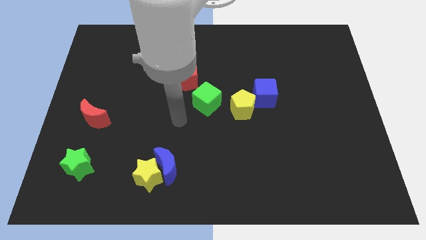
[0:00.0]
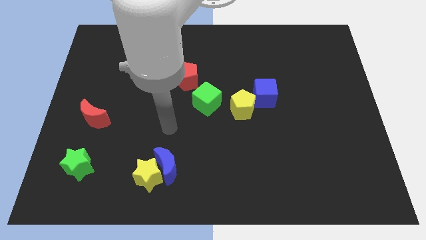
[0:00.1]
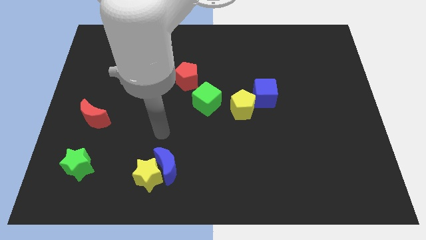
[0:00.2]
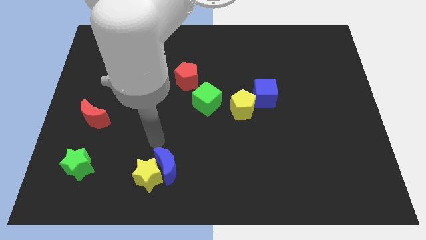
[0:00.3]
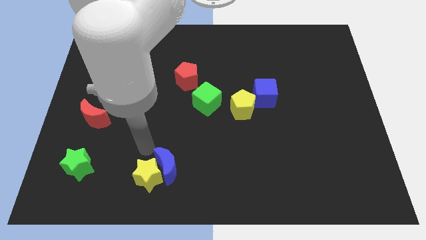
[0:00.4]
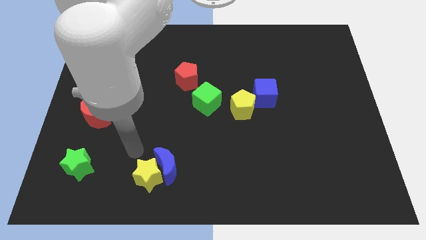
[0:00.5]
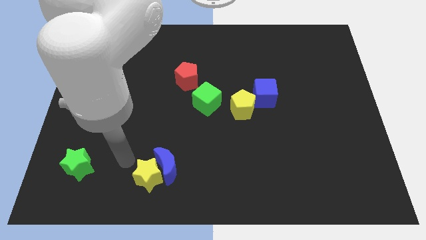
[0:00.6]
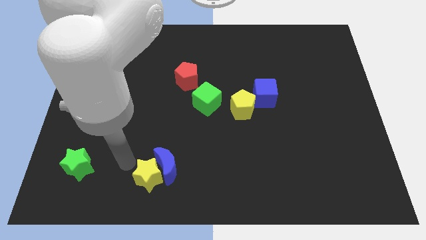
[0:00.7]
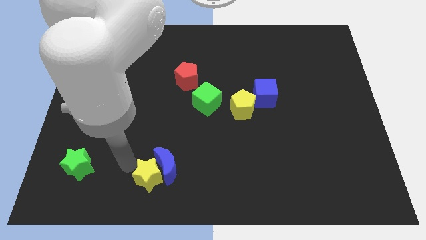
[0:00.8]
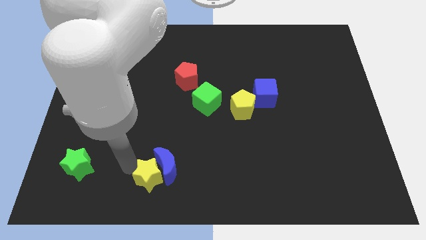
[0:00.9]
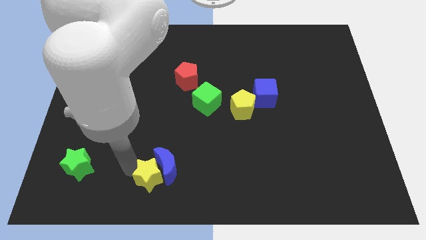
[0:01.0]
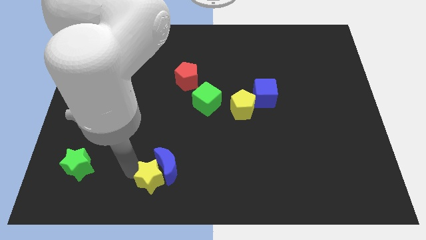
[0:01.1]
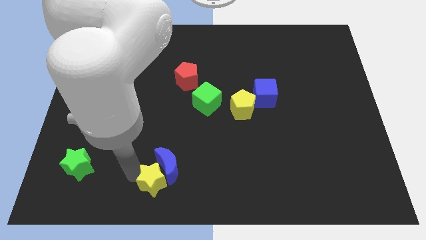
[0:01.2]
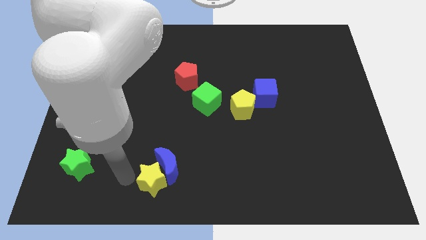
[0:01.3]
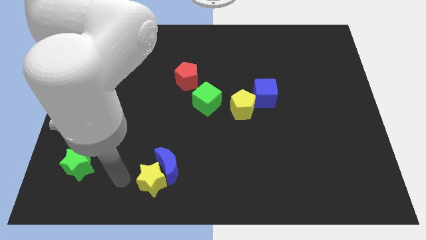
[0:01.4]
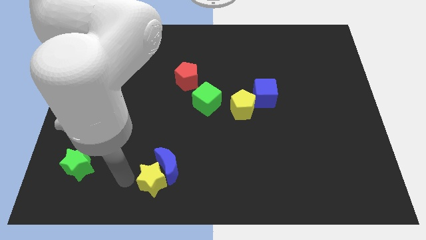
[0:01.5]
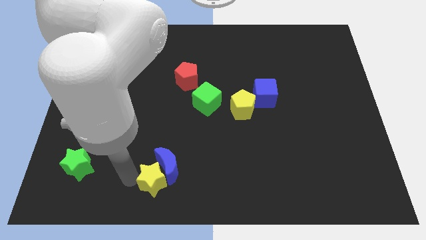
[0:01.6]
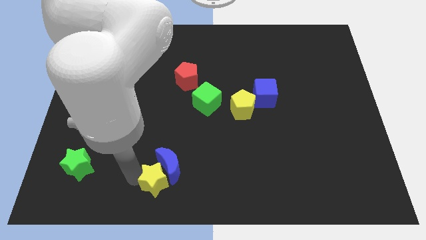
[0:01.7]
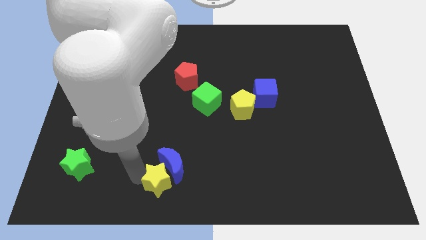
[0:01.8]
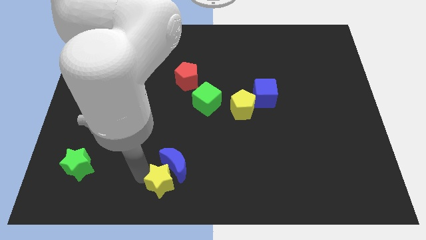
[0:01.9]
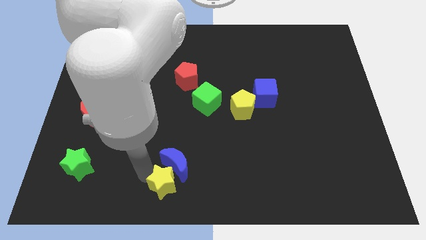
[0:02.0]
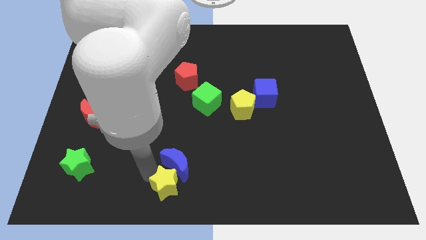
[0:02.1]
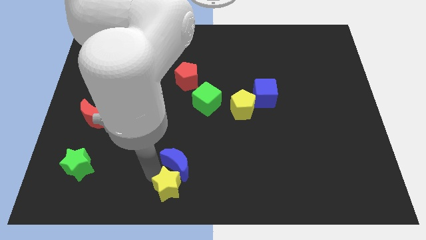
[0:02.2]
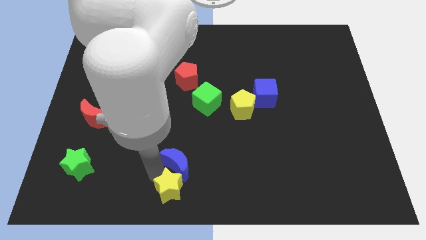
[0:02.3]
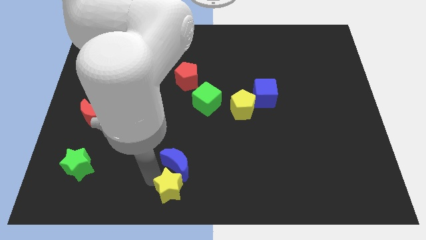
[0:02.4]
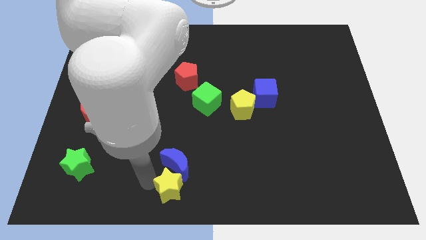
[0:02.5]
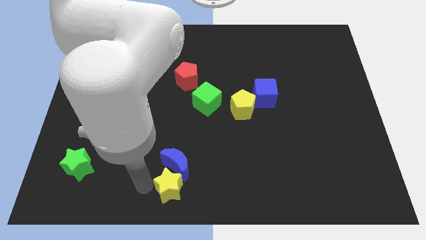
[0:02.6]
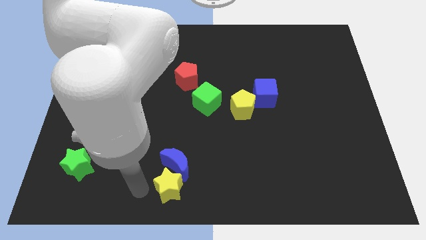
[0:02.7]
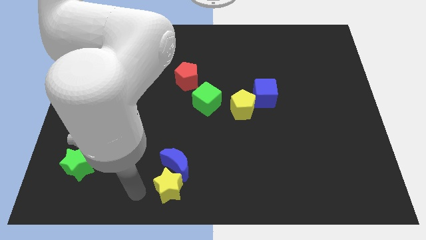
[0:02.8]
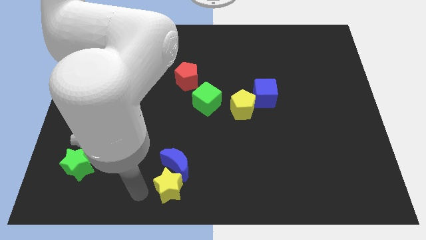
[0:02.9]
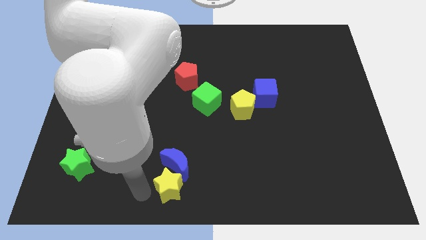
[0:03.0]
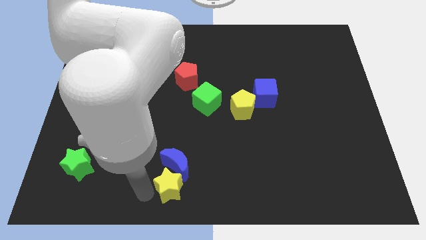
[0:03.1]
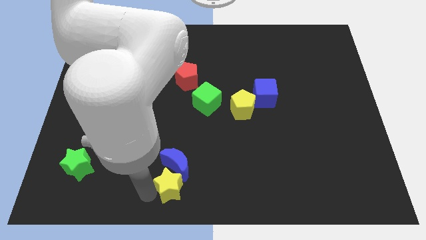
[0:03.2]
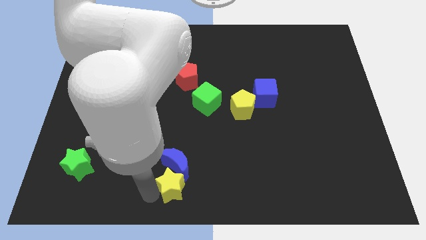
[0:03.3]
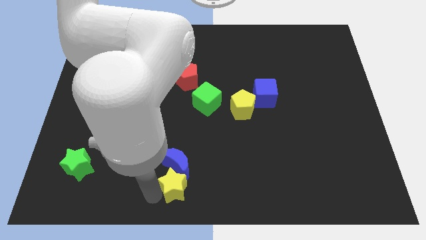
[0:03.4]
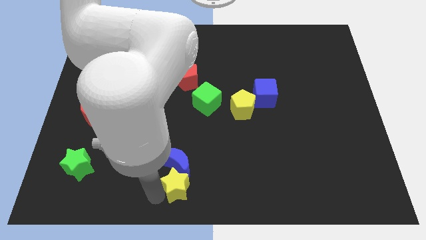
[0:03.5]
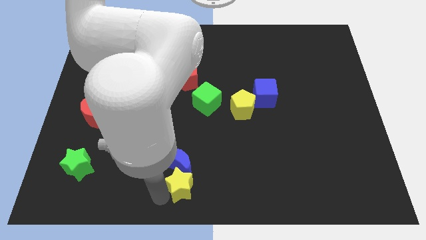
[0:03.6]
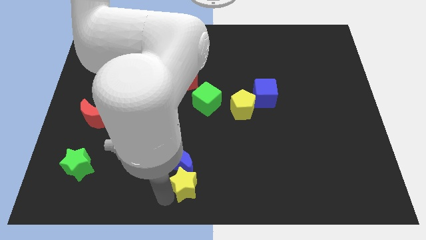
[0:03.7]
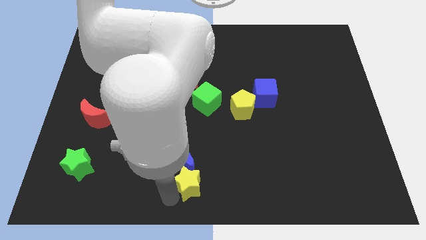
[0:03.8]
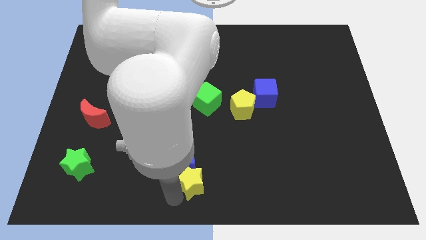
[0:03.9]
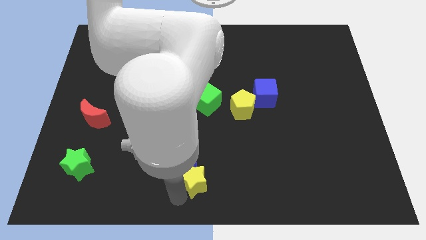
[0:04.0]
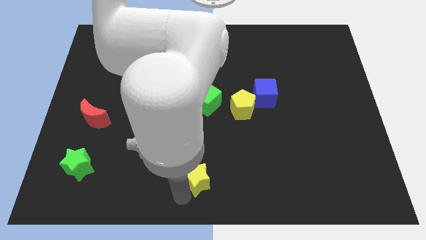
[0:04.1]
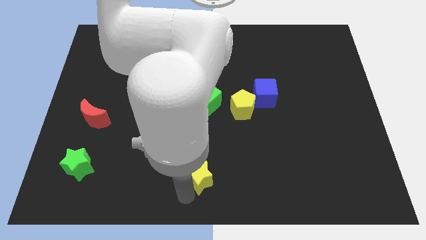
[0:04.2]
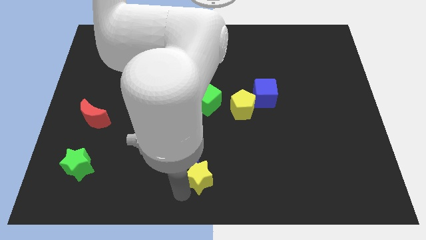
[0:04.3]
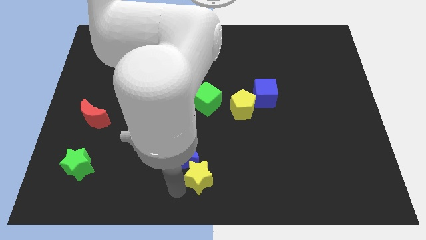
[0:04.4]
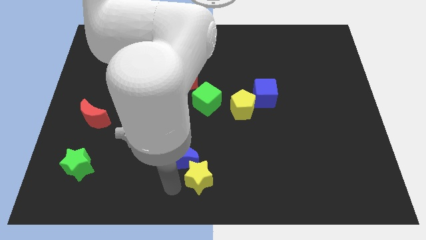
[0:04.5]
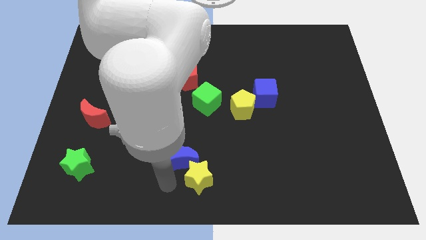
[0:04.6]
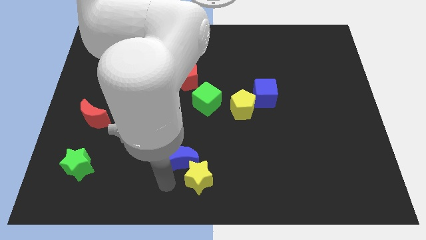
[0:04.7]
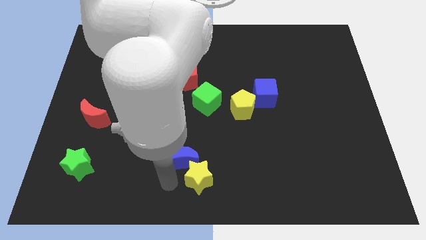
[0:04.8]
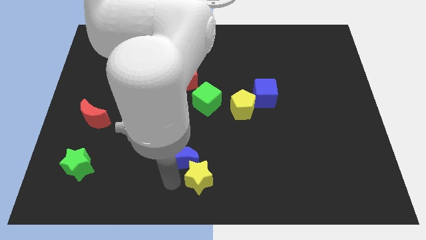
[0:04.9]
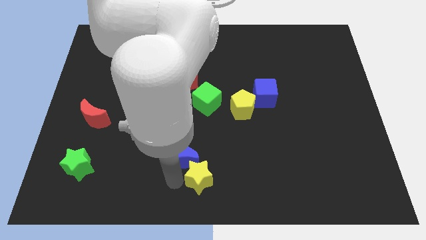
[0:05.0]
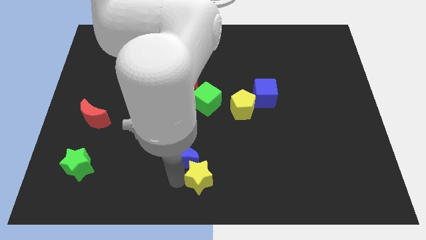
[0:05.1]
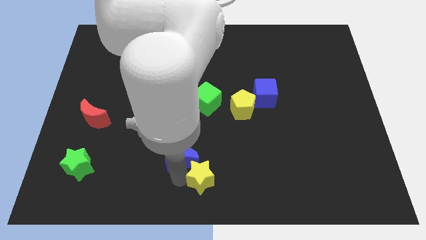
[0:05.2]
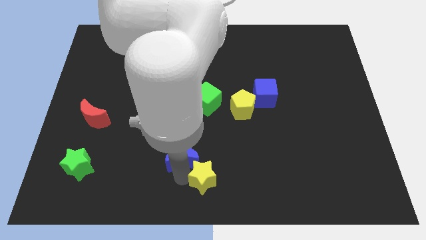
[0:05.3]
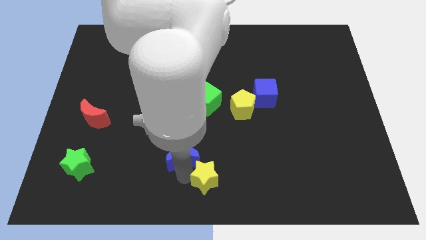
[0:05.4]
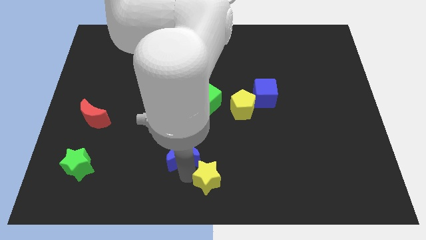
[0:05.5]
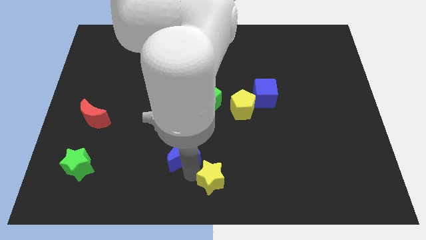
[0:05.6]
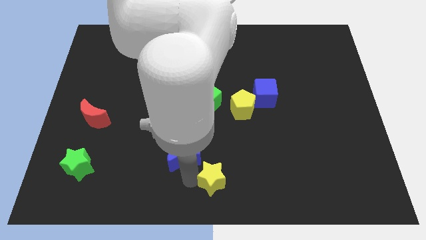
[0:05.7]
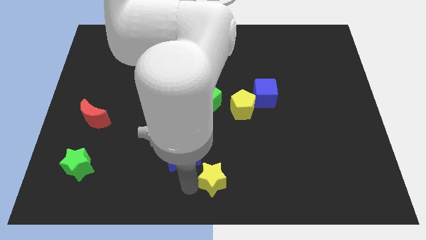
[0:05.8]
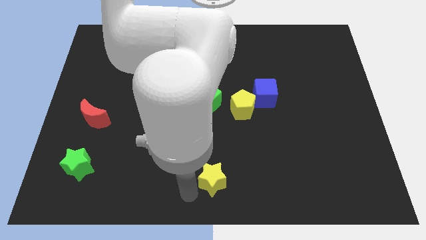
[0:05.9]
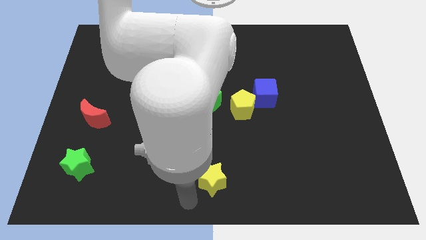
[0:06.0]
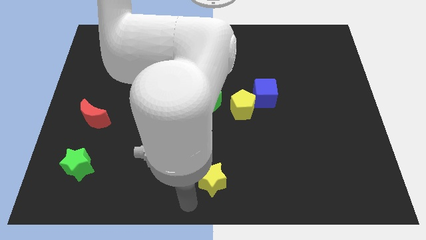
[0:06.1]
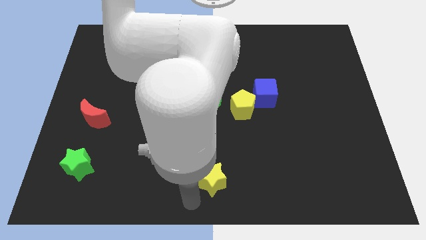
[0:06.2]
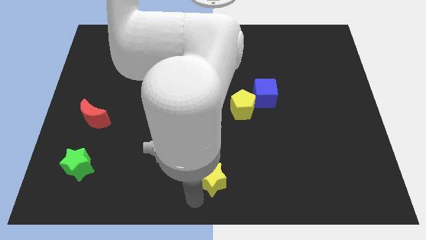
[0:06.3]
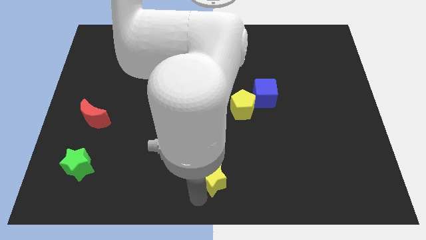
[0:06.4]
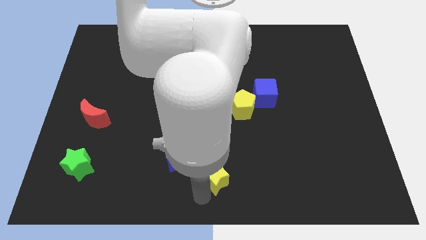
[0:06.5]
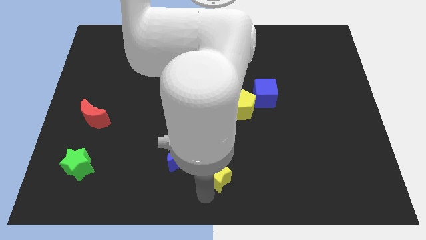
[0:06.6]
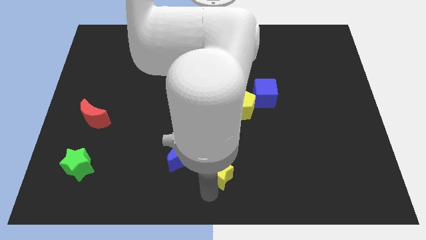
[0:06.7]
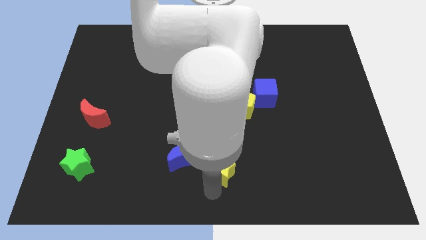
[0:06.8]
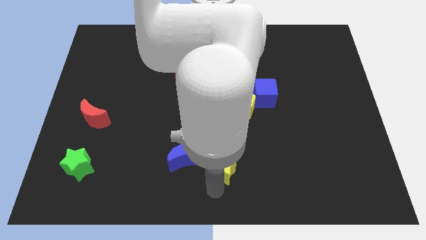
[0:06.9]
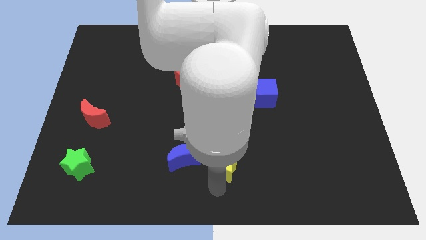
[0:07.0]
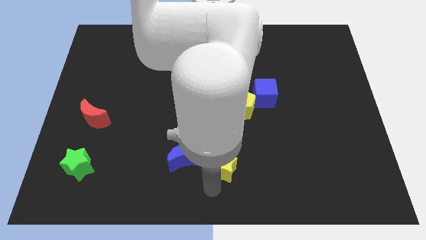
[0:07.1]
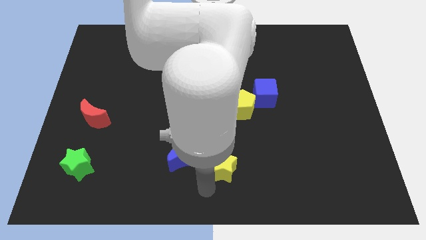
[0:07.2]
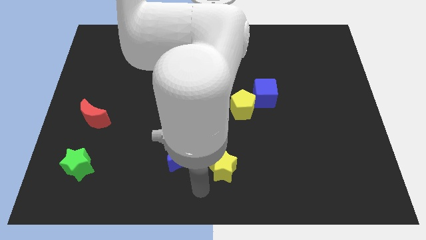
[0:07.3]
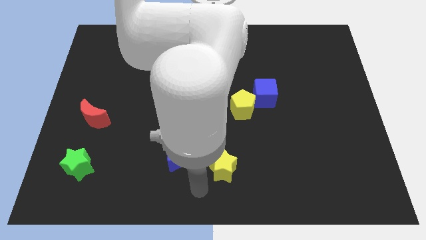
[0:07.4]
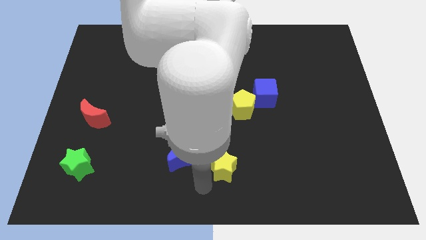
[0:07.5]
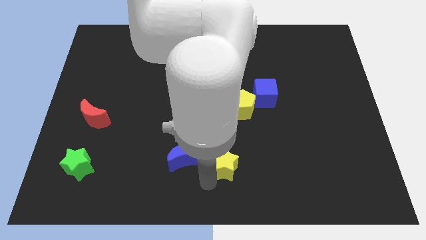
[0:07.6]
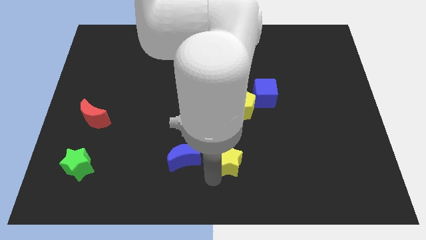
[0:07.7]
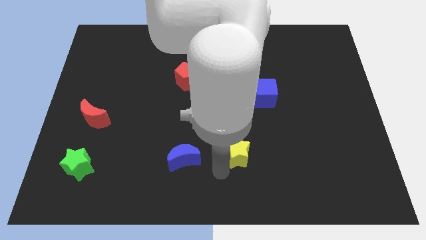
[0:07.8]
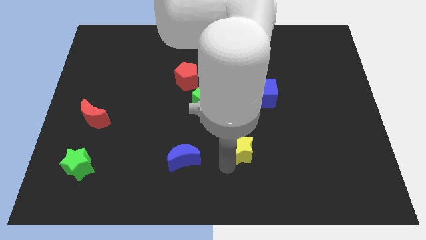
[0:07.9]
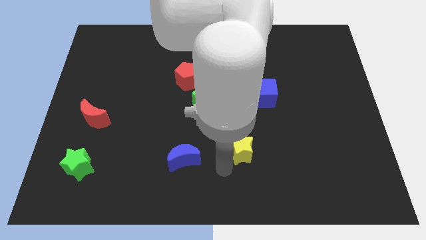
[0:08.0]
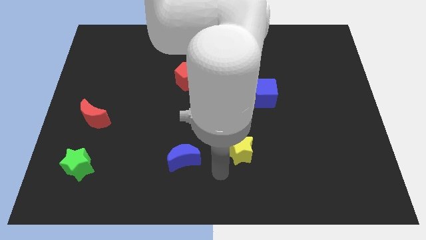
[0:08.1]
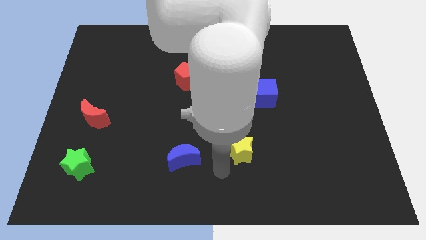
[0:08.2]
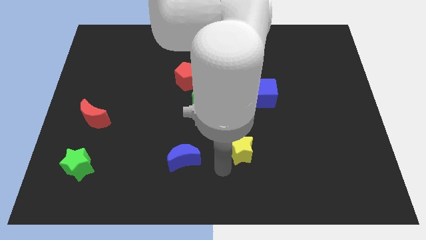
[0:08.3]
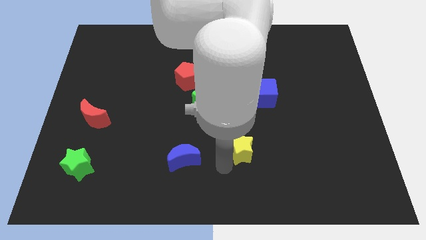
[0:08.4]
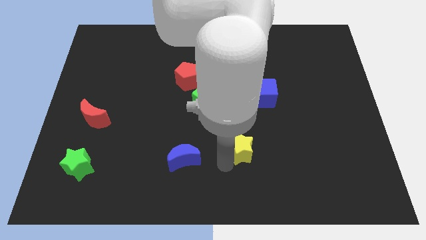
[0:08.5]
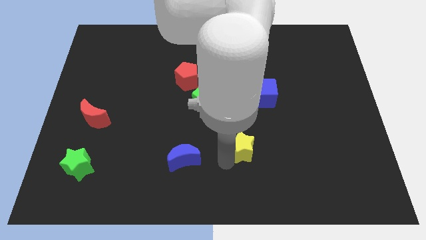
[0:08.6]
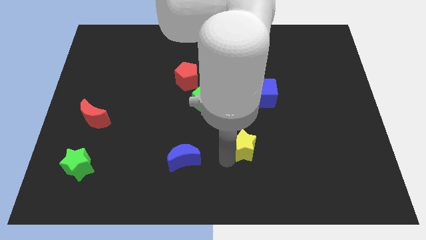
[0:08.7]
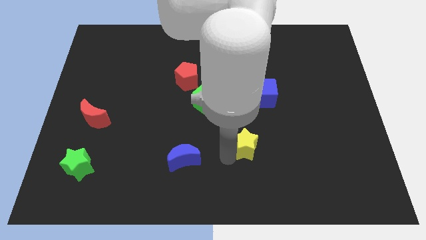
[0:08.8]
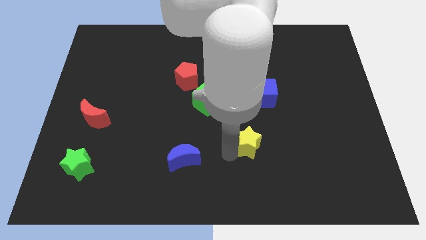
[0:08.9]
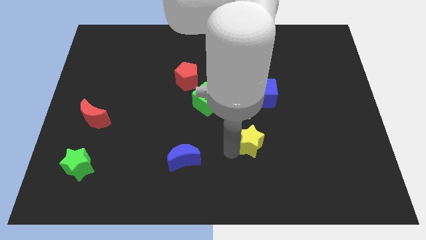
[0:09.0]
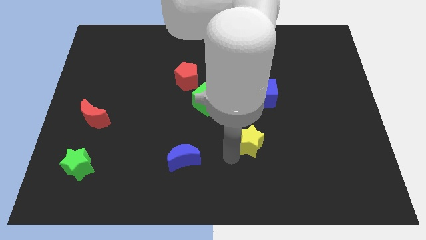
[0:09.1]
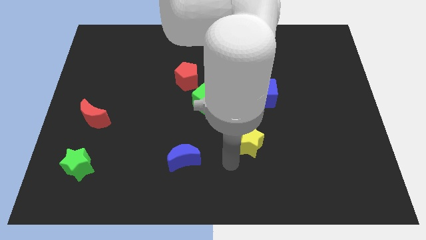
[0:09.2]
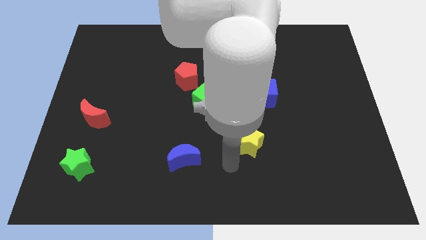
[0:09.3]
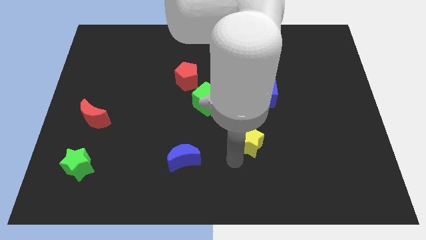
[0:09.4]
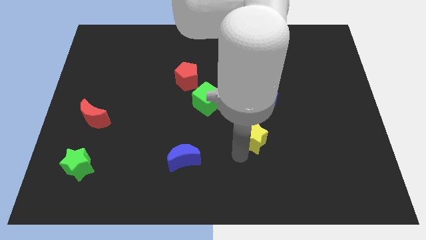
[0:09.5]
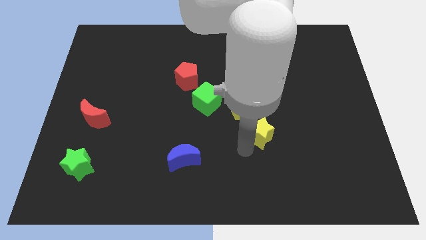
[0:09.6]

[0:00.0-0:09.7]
put the yellow star diagonally down and to the right of the yellow pentagon
